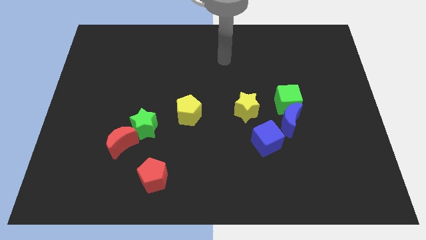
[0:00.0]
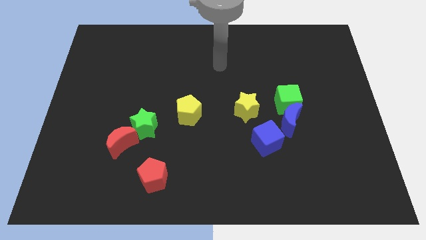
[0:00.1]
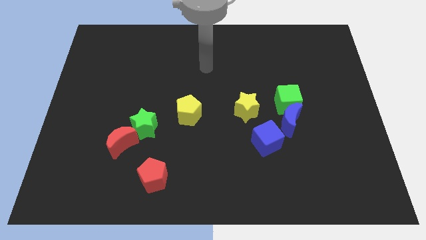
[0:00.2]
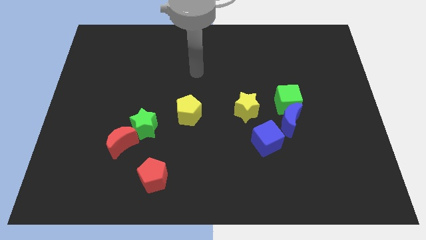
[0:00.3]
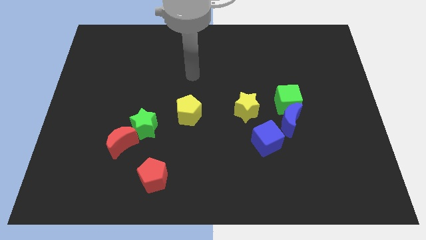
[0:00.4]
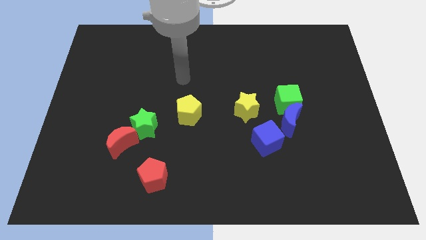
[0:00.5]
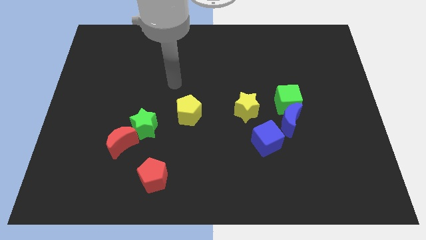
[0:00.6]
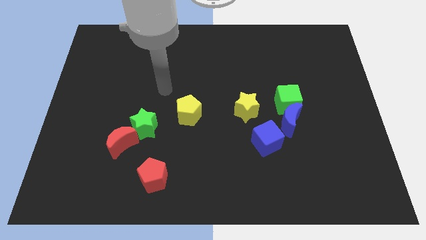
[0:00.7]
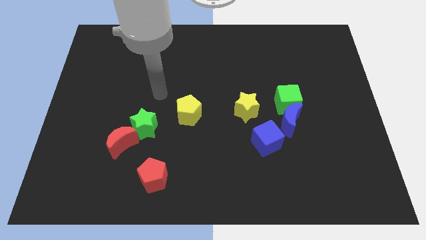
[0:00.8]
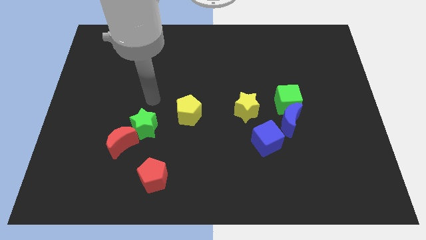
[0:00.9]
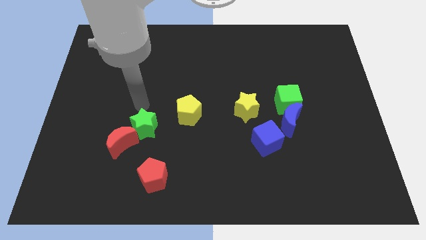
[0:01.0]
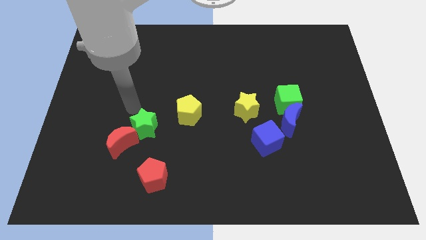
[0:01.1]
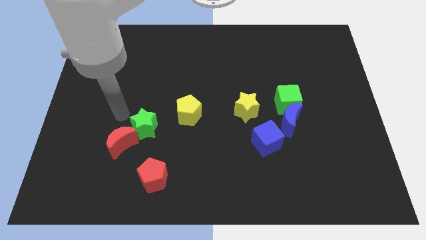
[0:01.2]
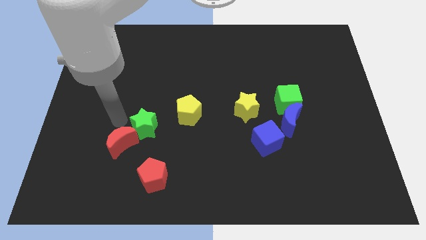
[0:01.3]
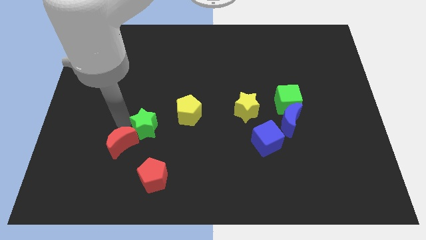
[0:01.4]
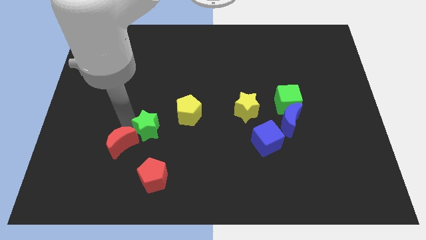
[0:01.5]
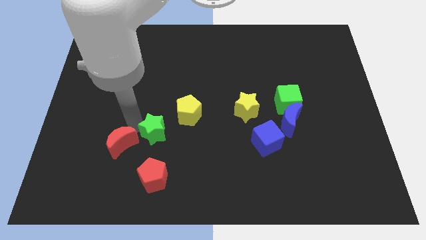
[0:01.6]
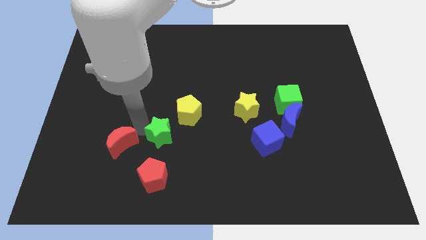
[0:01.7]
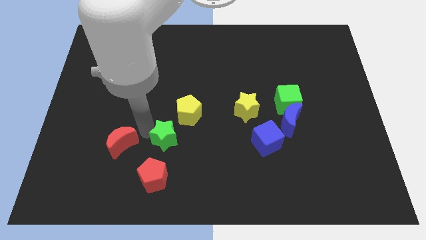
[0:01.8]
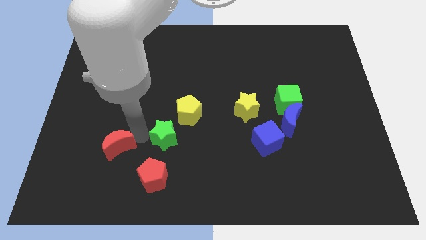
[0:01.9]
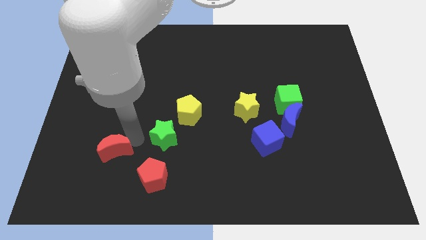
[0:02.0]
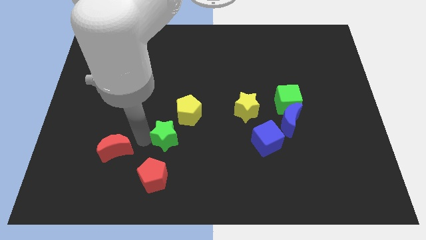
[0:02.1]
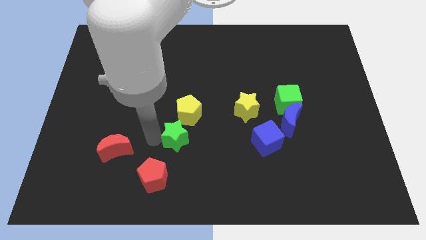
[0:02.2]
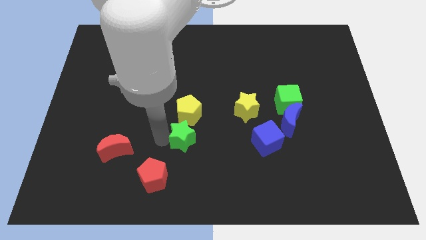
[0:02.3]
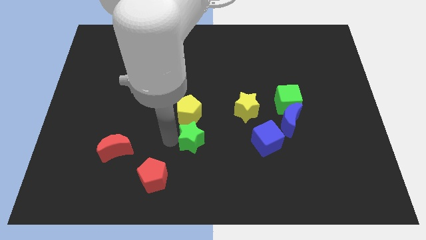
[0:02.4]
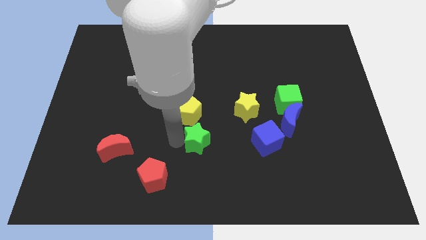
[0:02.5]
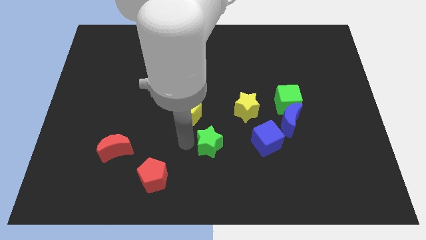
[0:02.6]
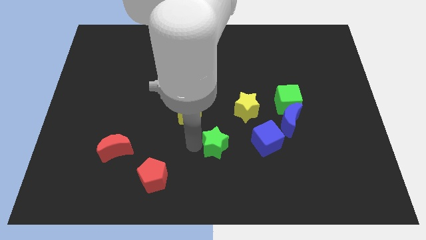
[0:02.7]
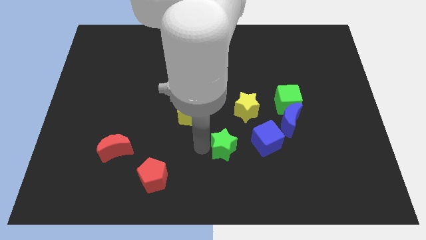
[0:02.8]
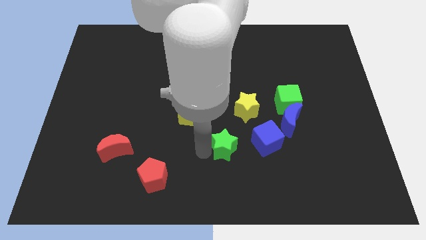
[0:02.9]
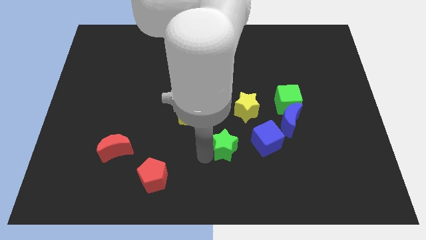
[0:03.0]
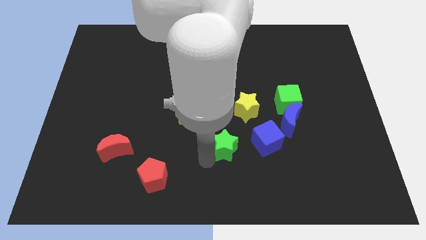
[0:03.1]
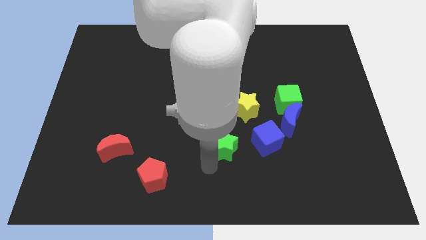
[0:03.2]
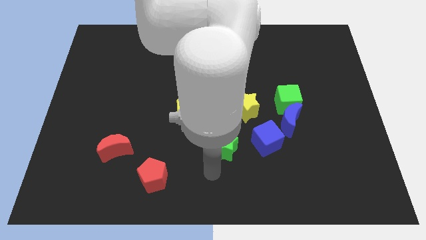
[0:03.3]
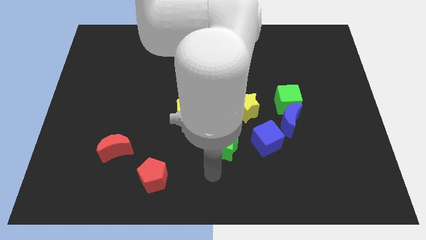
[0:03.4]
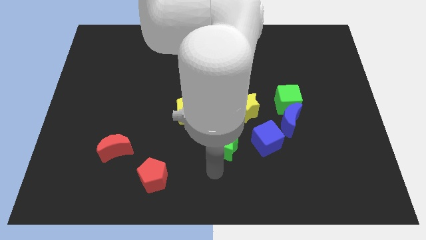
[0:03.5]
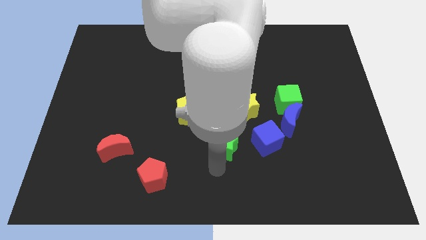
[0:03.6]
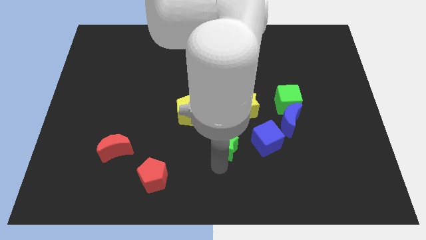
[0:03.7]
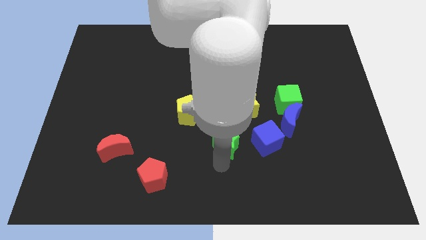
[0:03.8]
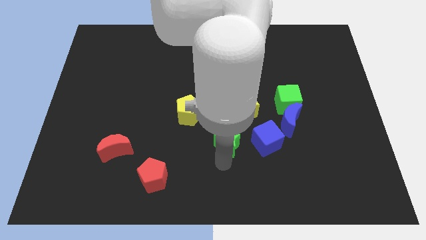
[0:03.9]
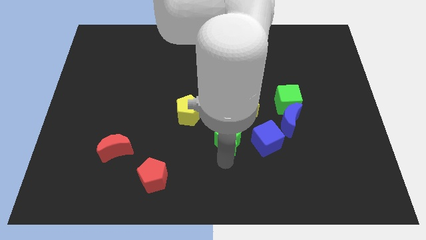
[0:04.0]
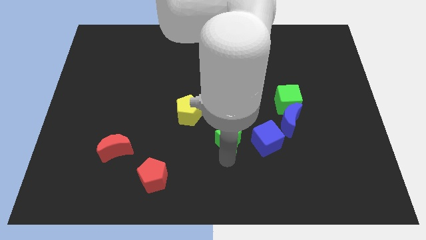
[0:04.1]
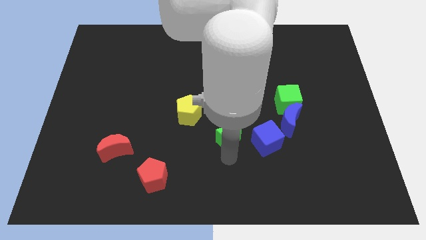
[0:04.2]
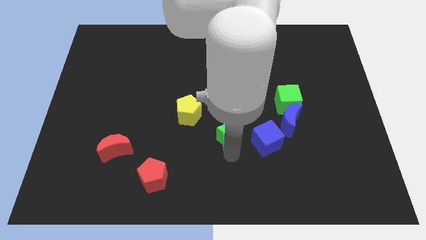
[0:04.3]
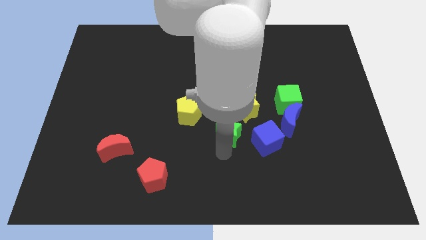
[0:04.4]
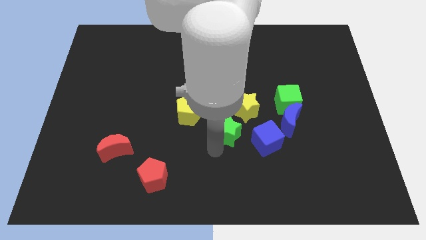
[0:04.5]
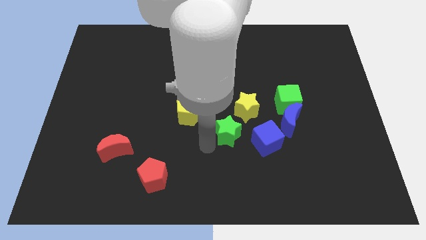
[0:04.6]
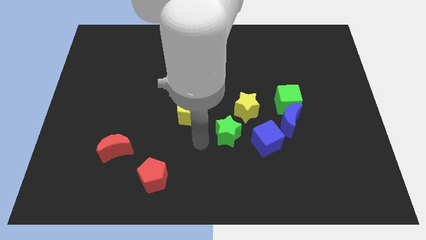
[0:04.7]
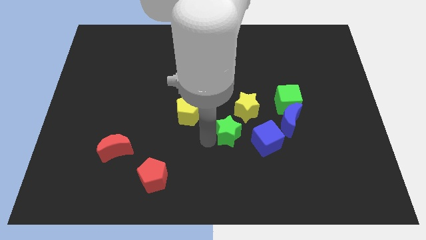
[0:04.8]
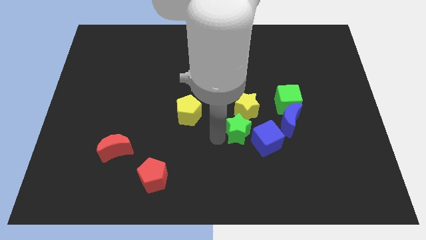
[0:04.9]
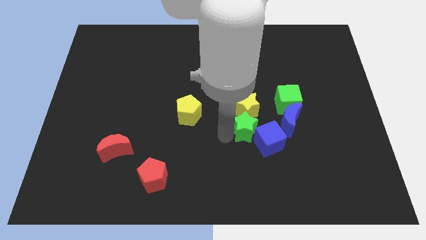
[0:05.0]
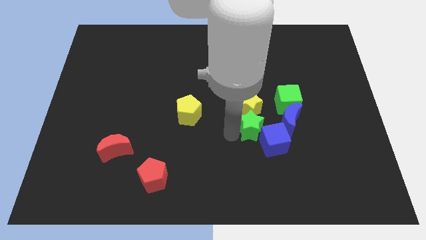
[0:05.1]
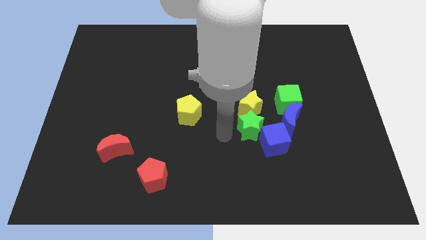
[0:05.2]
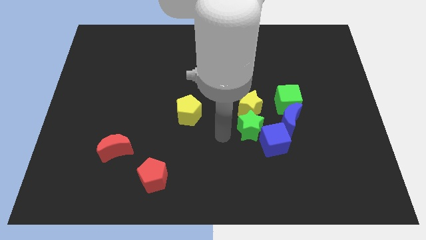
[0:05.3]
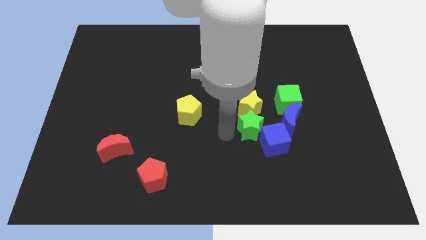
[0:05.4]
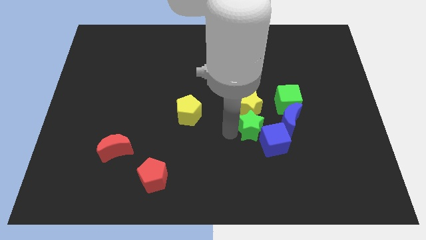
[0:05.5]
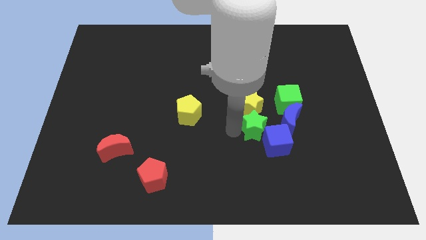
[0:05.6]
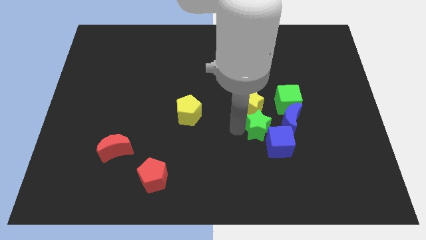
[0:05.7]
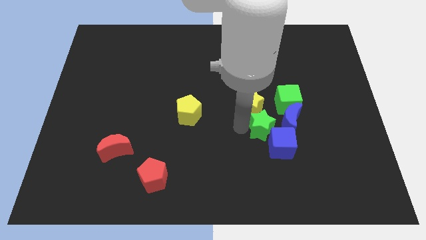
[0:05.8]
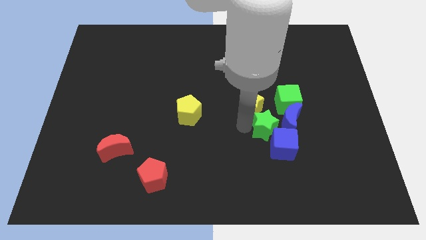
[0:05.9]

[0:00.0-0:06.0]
push the green star to the blue moon
